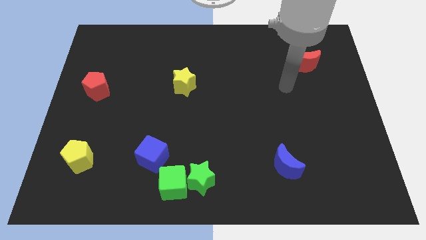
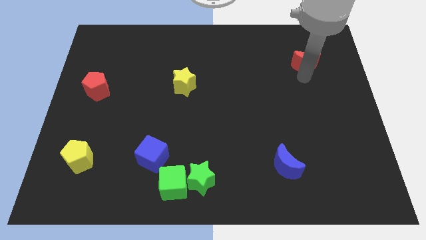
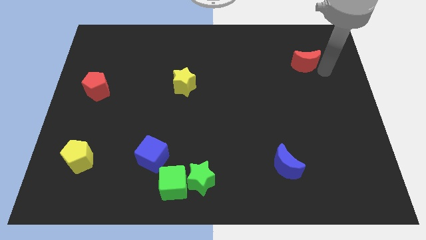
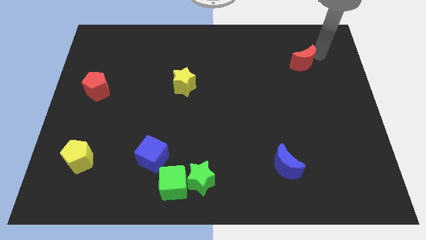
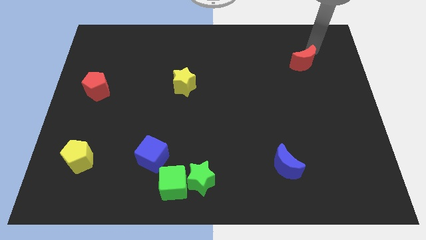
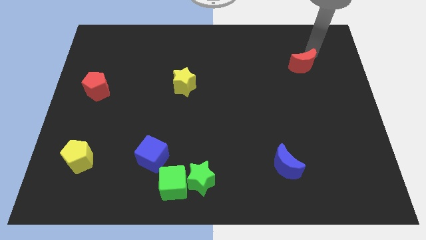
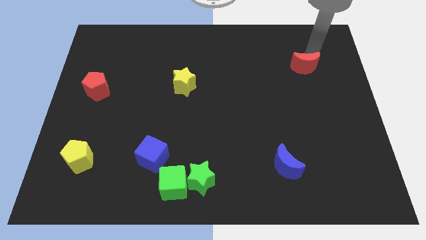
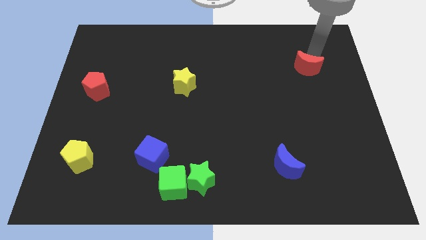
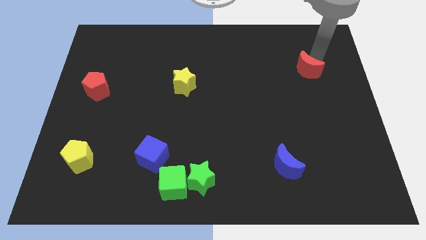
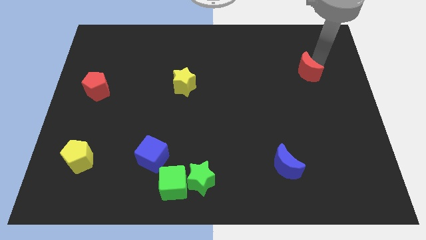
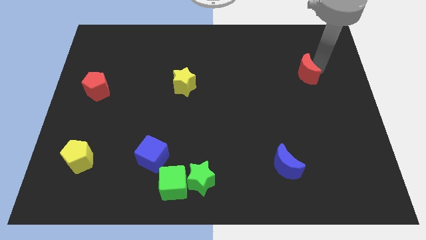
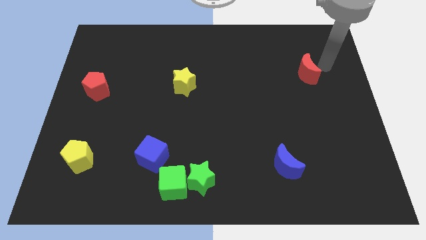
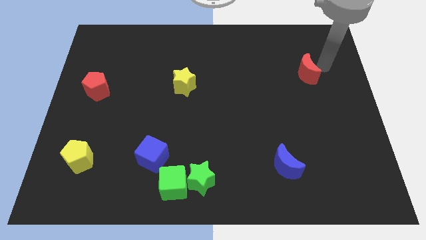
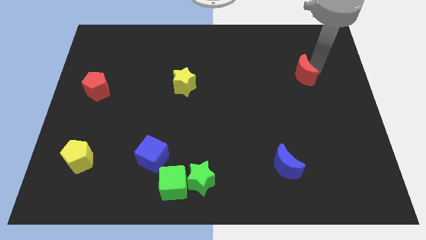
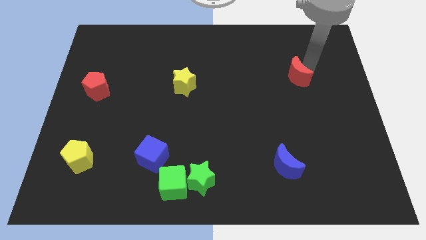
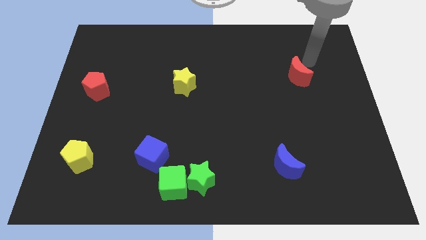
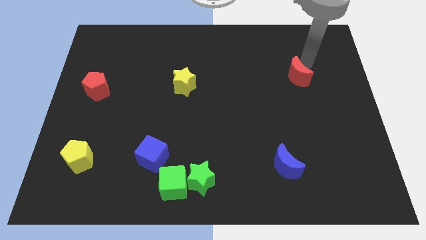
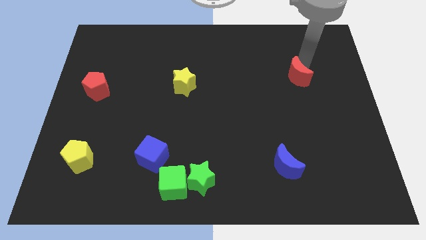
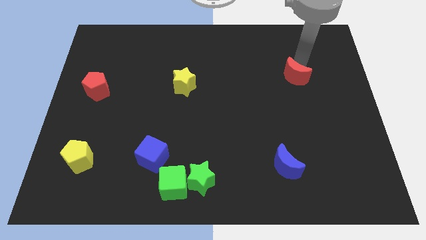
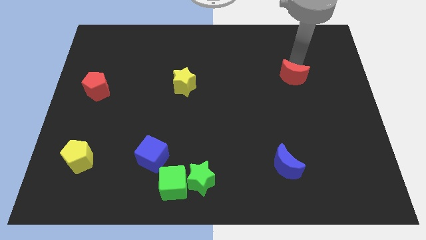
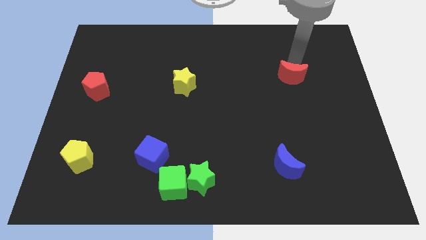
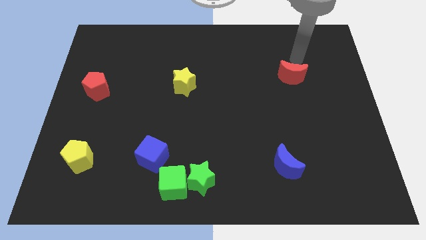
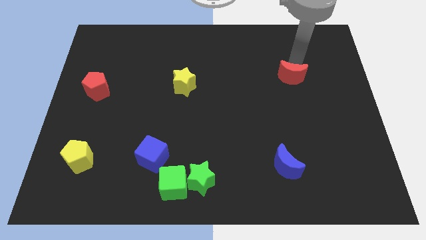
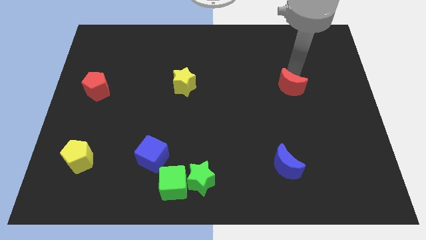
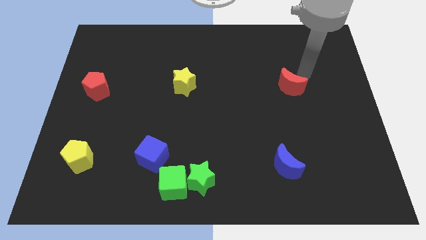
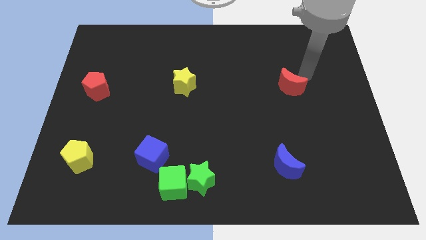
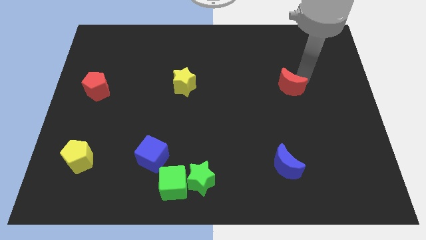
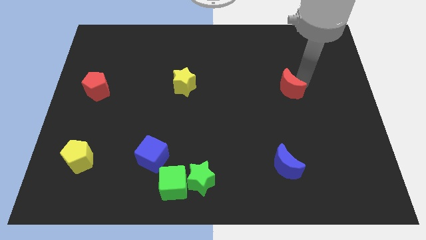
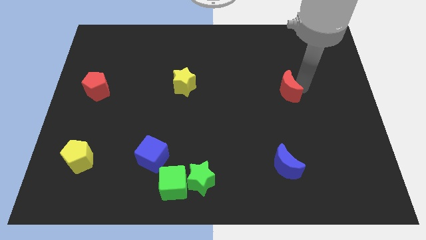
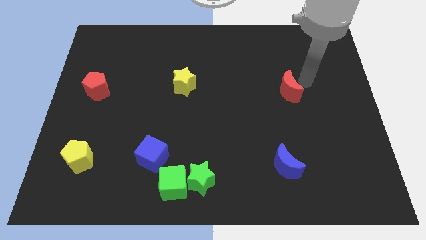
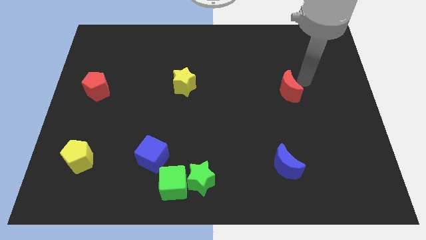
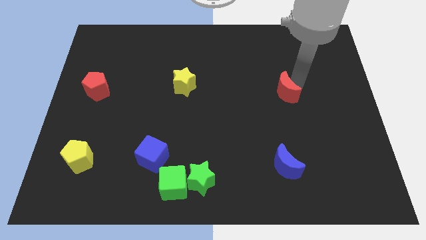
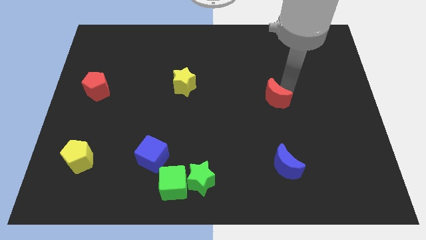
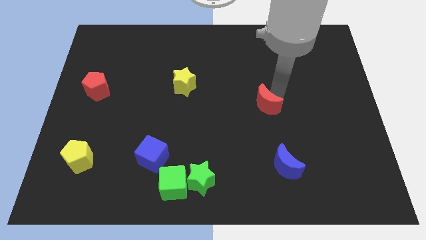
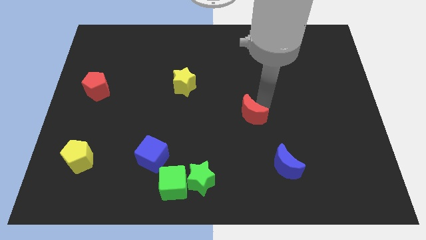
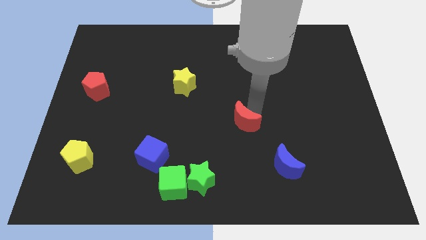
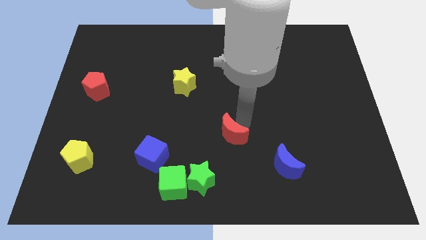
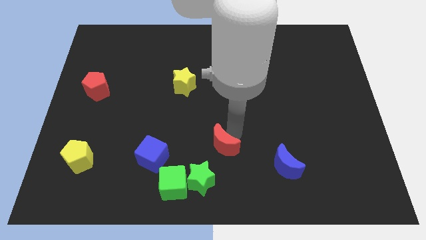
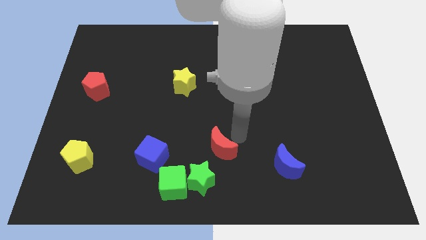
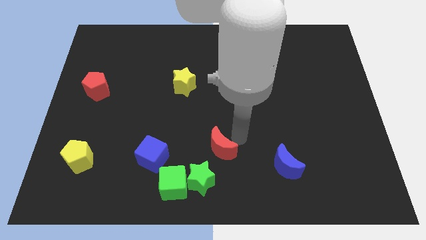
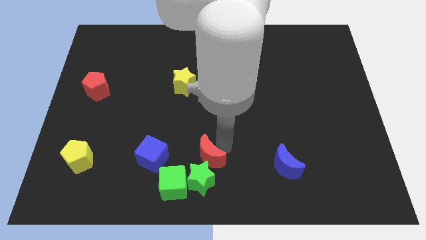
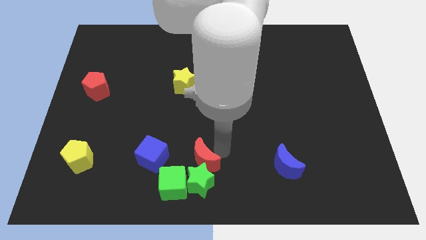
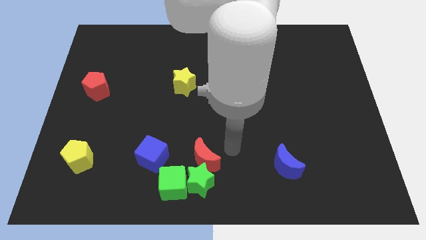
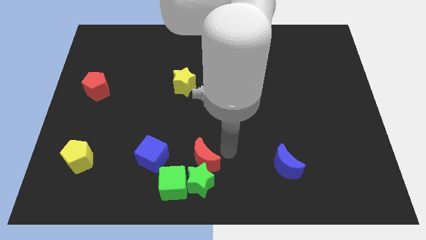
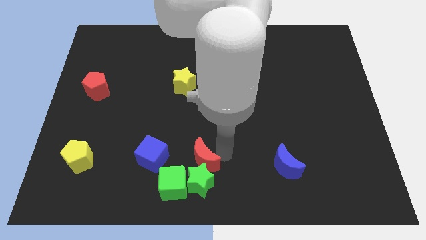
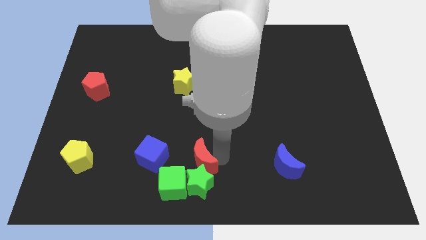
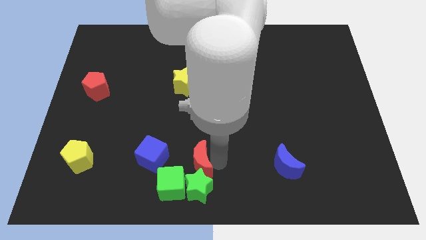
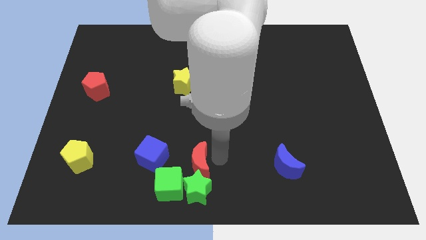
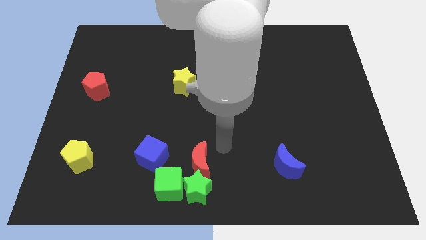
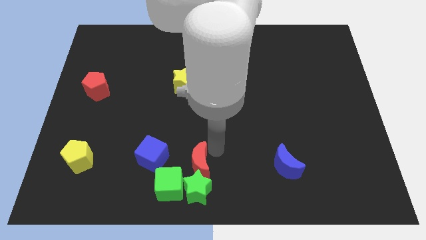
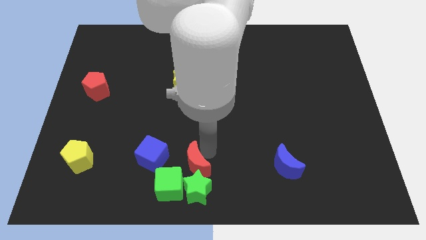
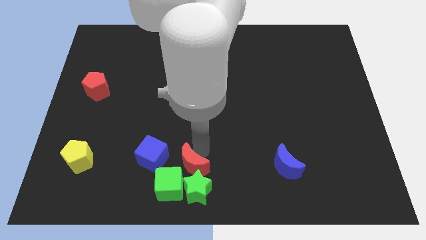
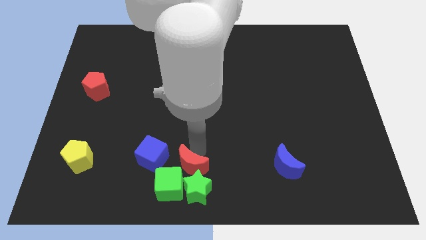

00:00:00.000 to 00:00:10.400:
move the red moon close to the green cube

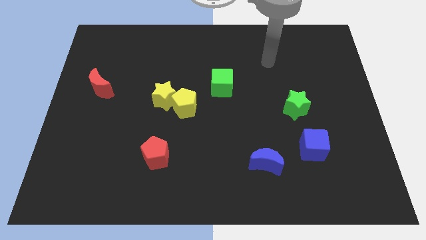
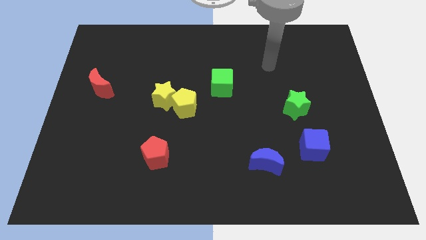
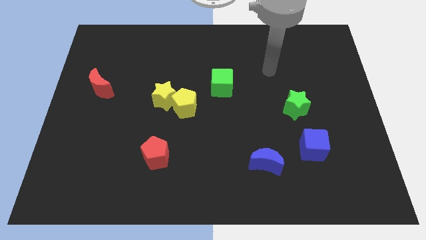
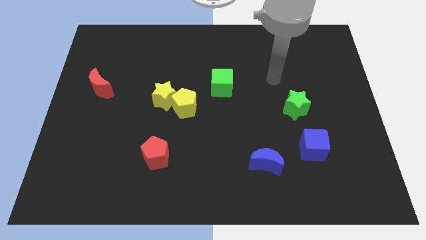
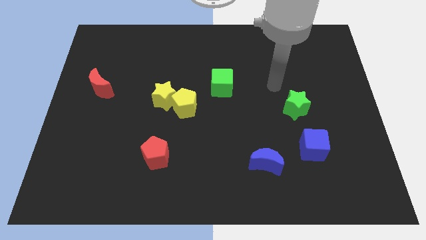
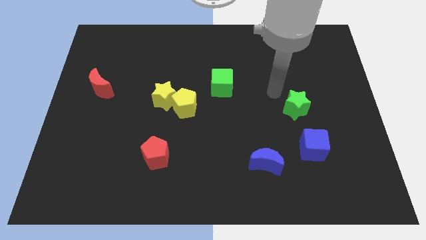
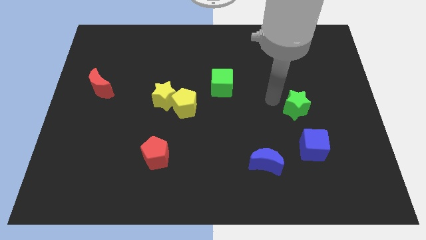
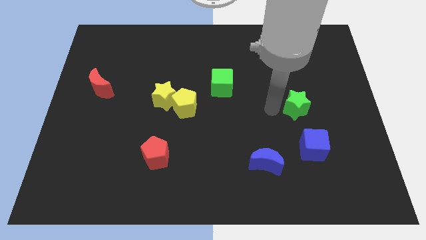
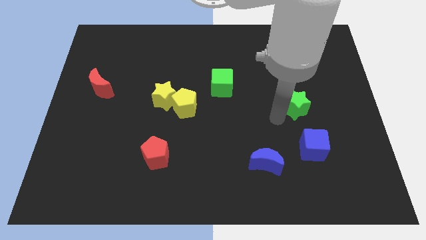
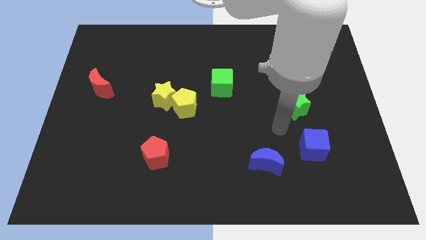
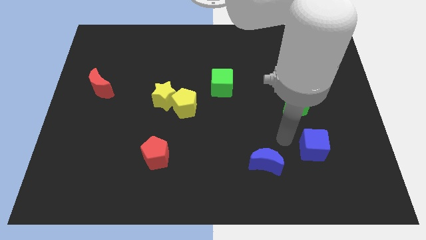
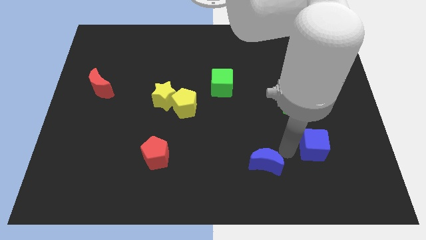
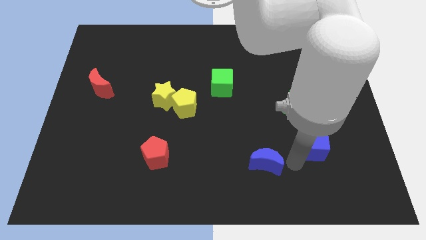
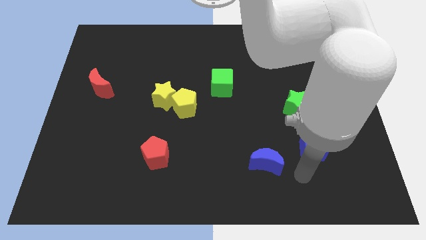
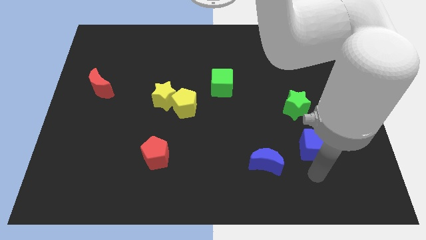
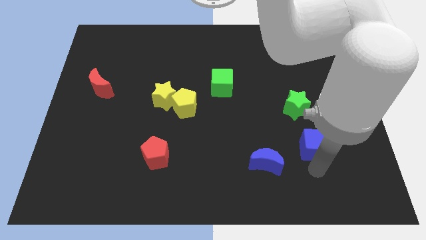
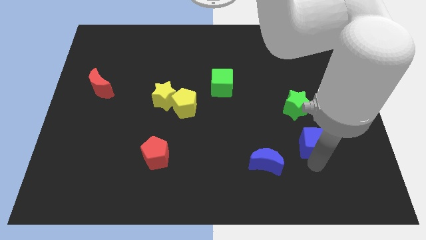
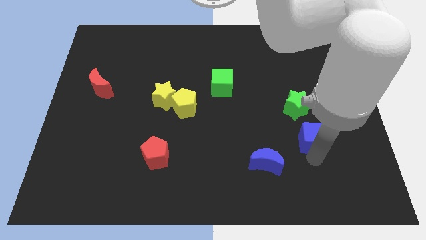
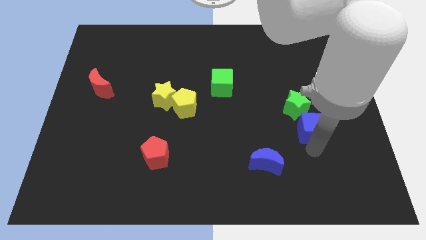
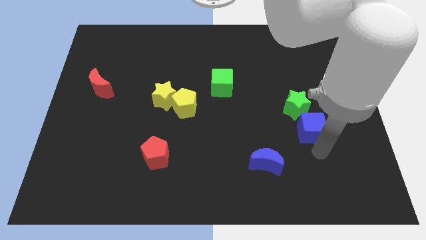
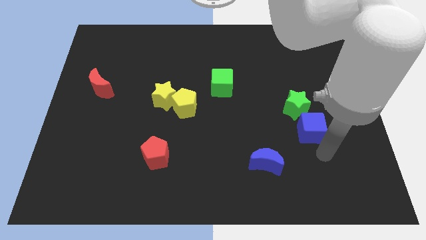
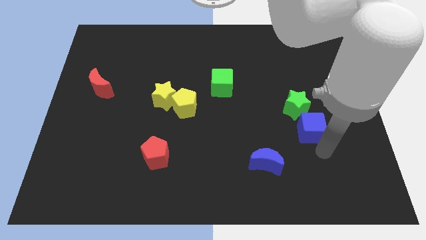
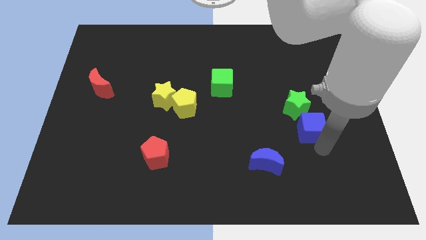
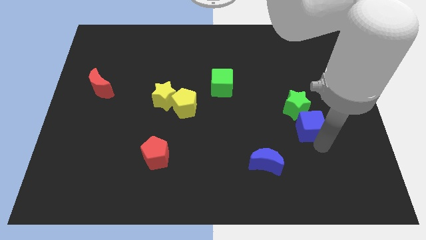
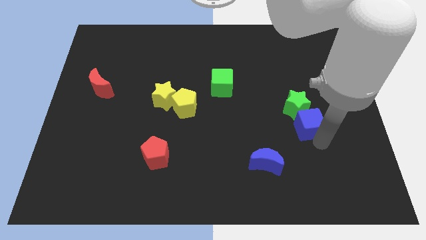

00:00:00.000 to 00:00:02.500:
push the blue cube close to the green star
